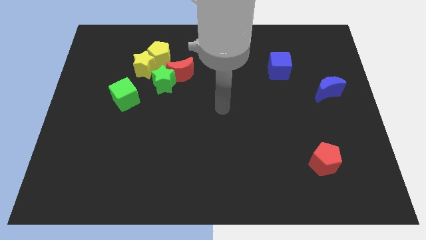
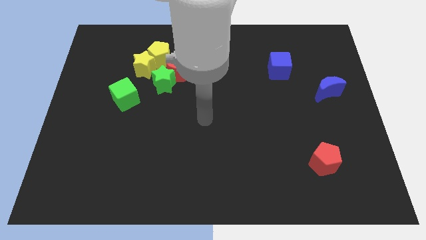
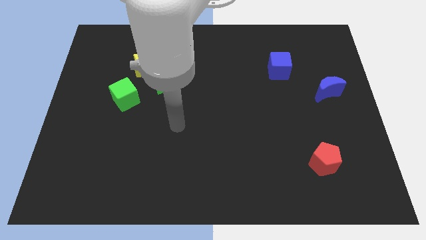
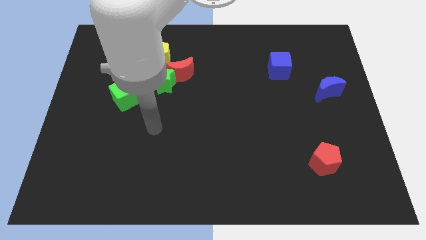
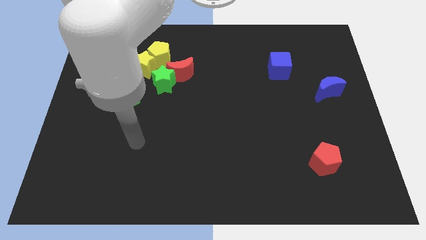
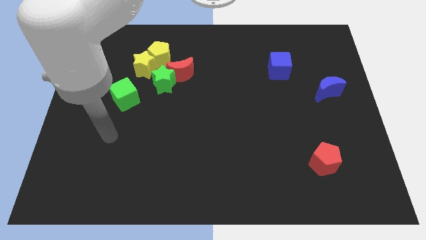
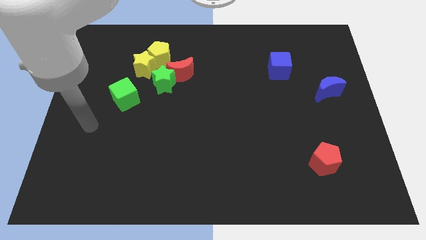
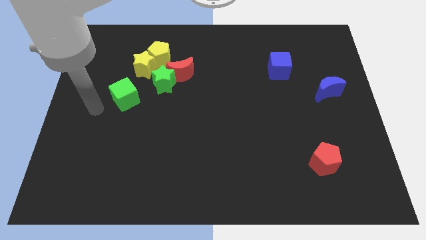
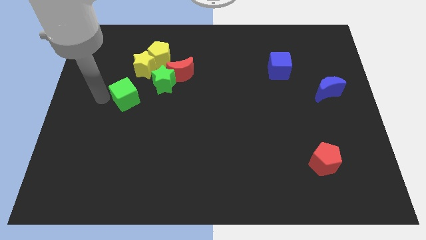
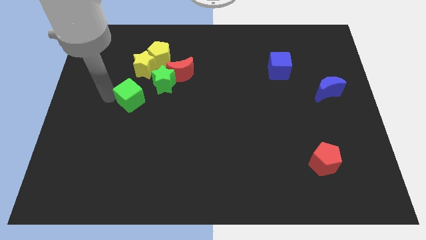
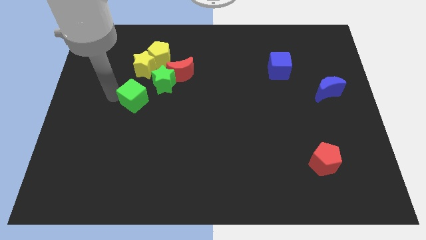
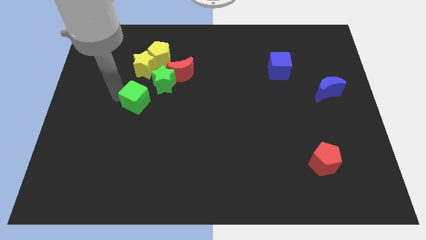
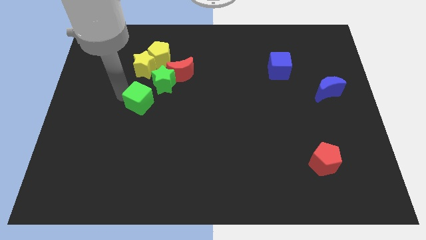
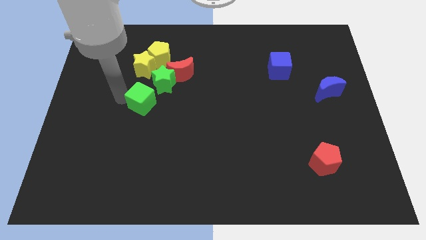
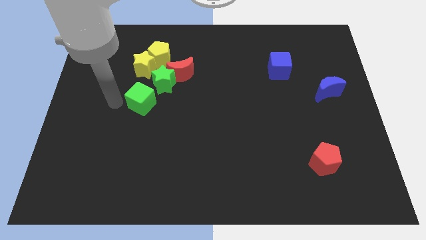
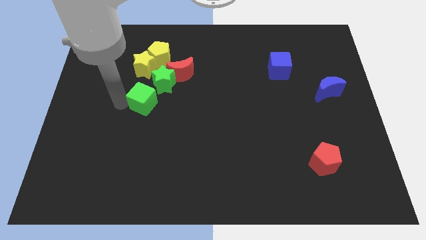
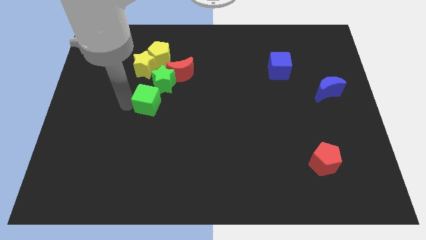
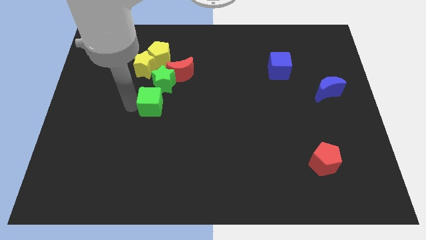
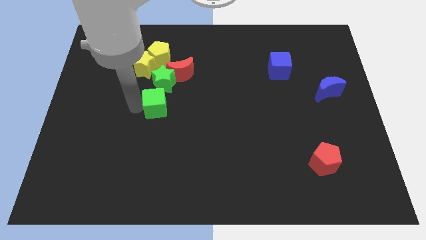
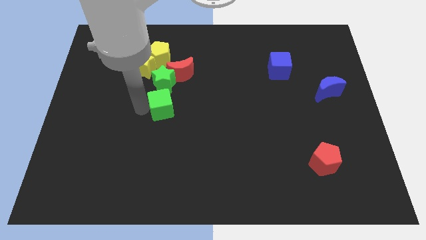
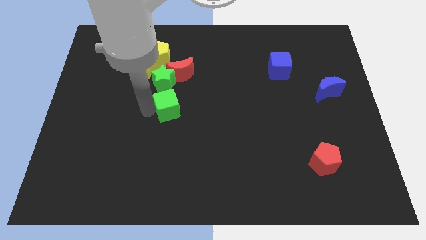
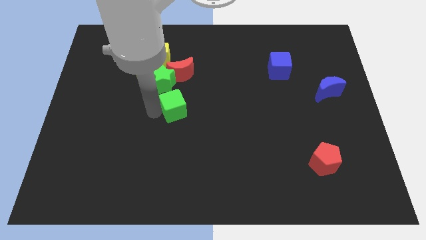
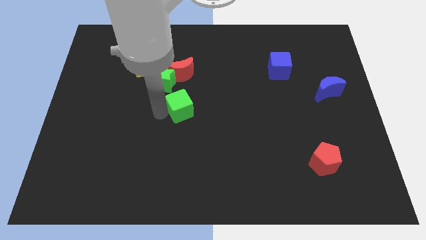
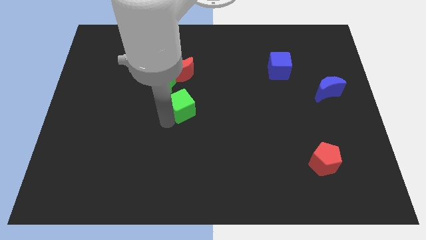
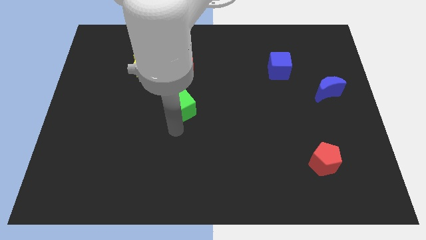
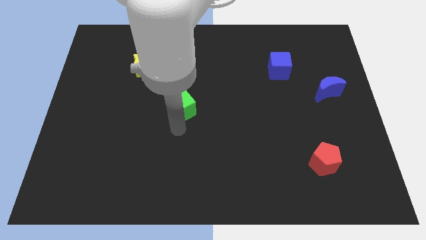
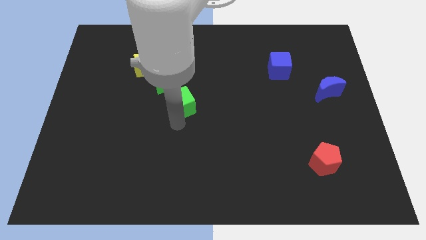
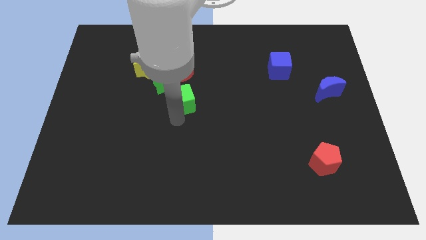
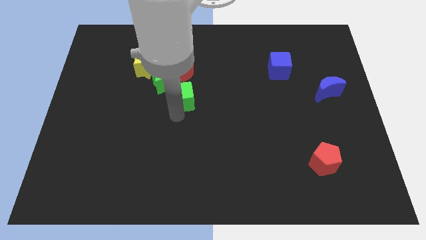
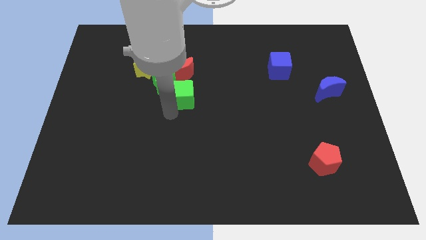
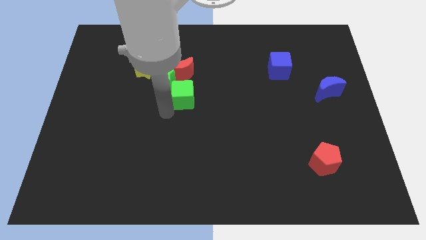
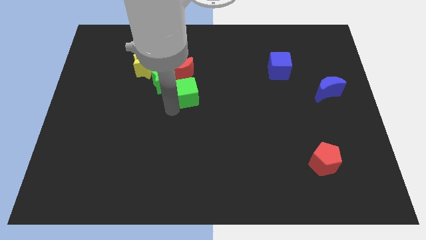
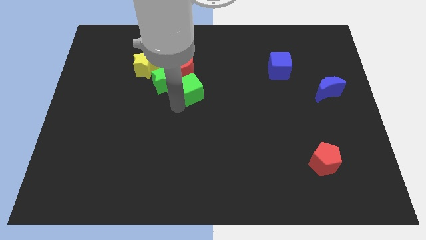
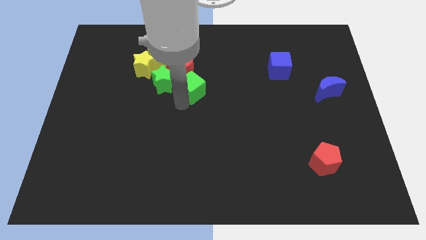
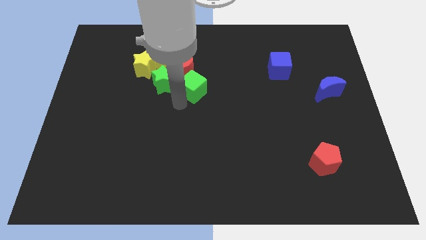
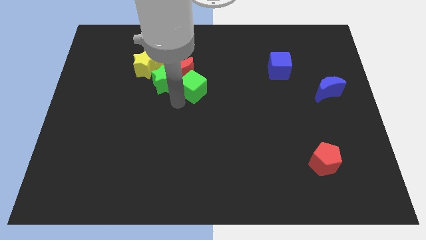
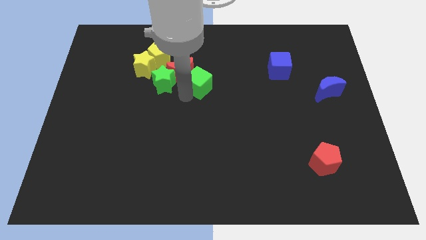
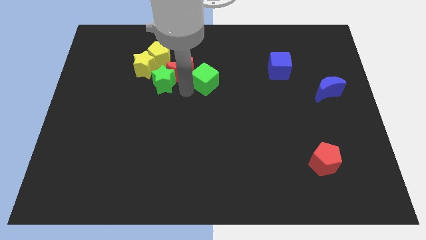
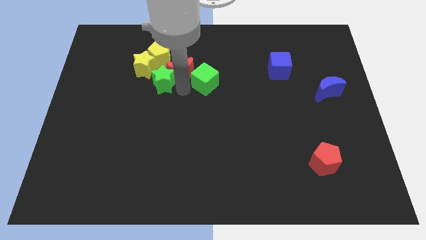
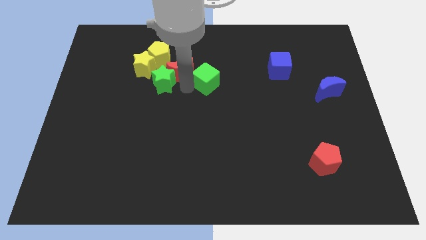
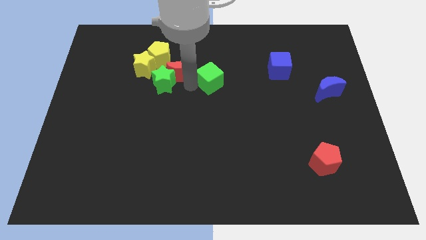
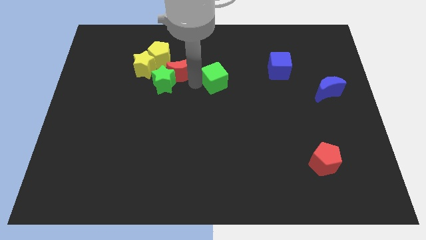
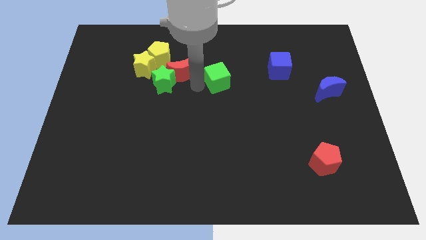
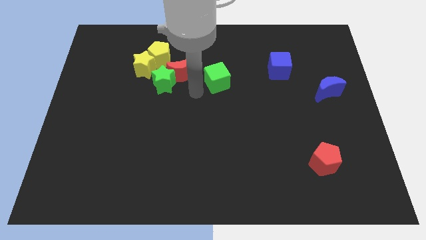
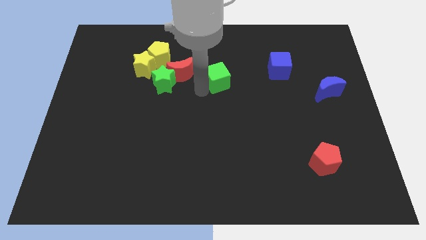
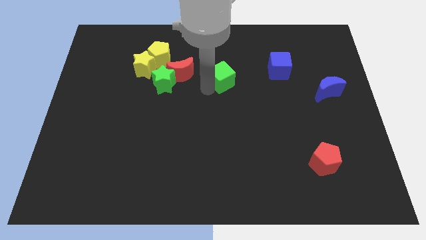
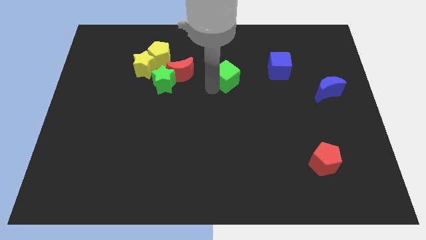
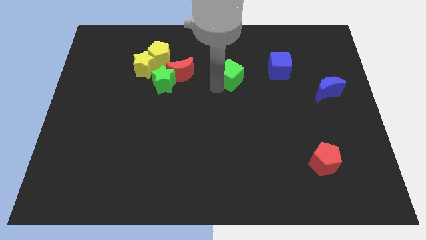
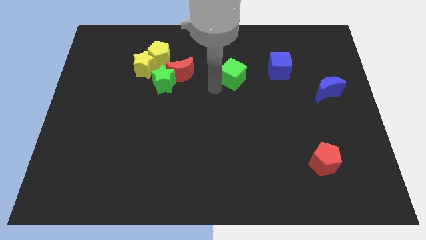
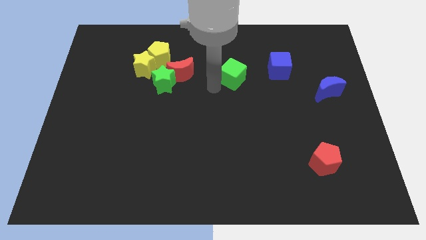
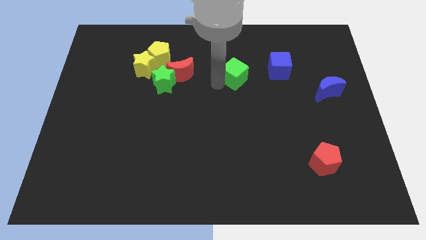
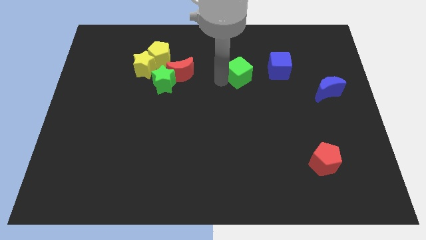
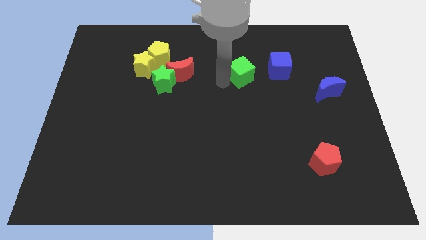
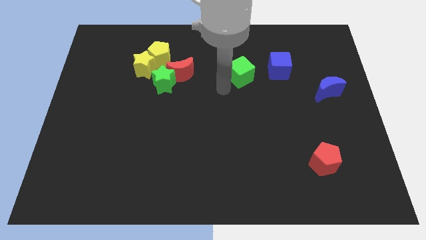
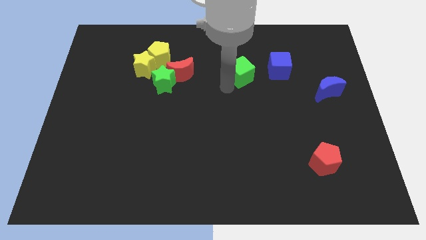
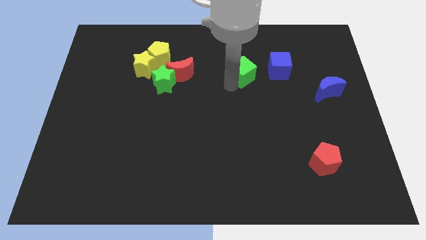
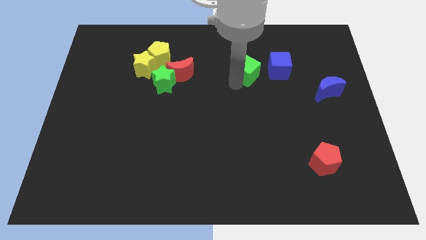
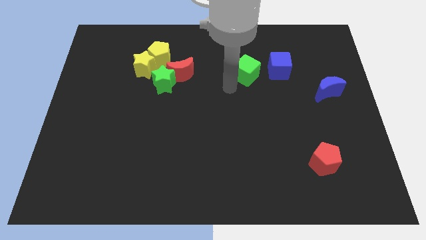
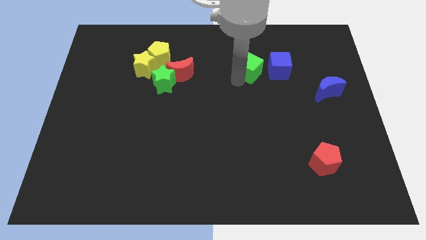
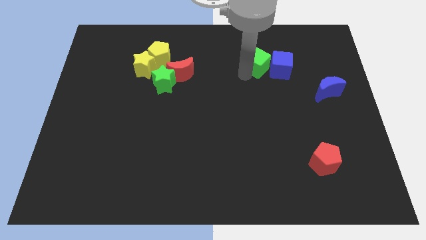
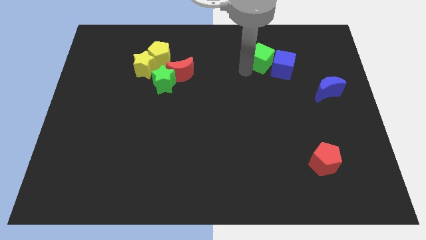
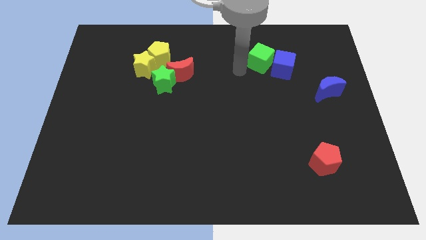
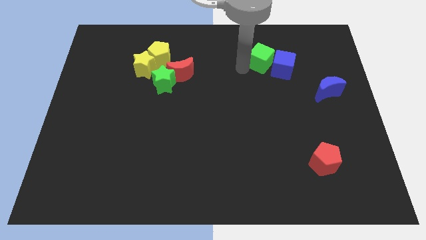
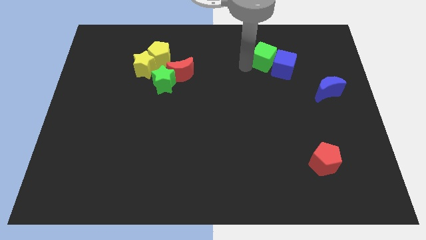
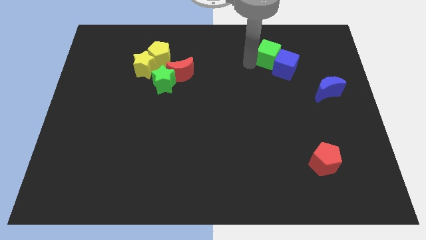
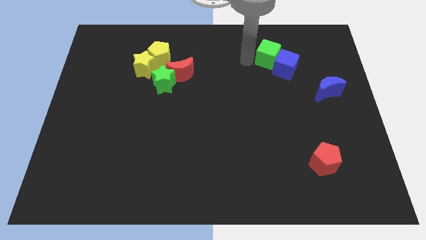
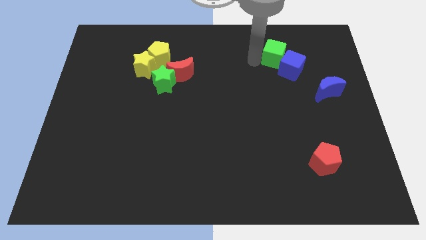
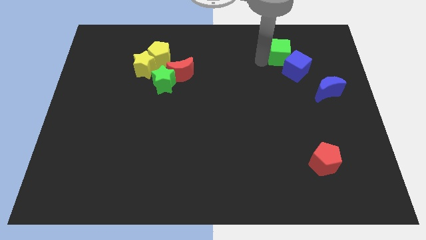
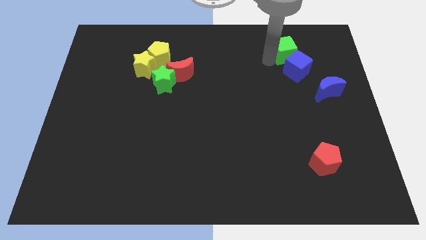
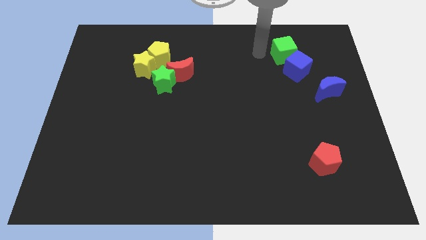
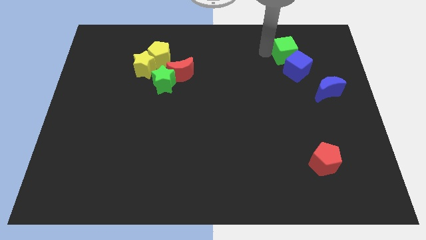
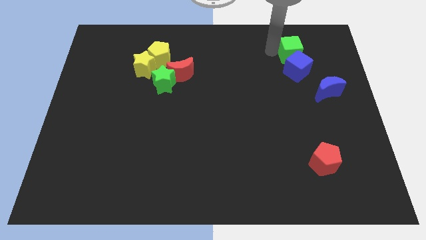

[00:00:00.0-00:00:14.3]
push the green cube to the top right side of the blue cube
